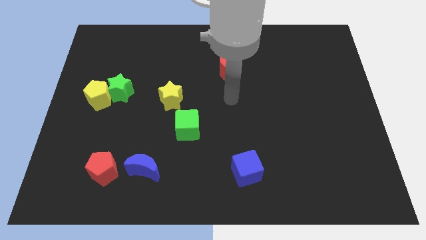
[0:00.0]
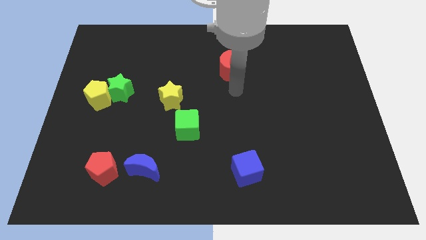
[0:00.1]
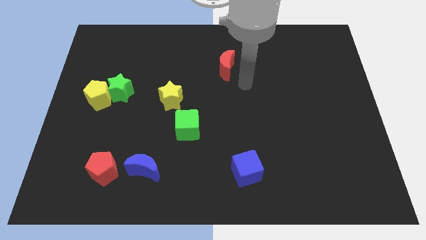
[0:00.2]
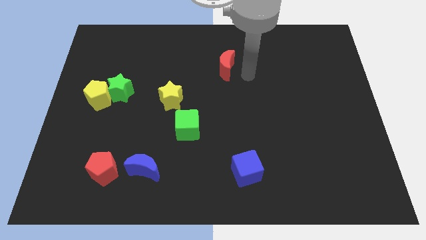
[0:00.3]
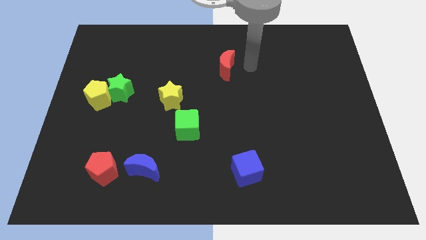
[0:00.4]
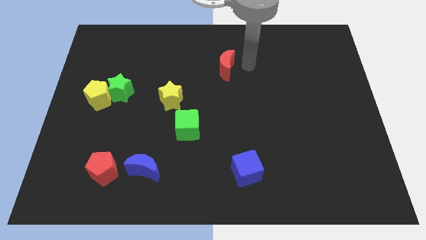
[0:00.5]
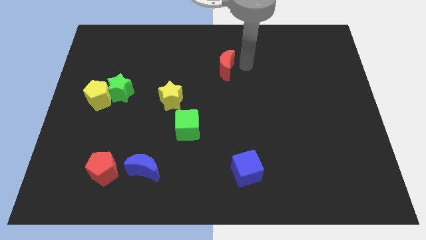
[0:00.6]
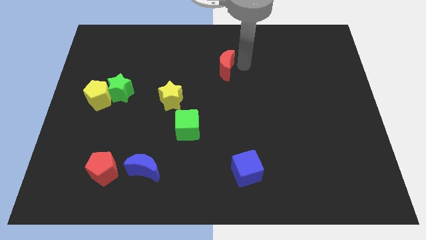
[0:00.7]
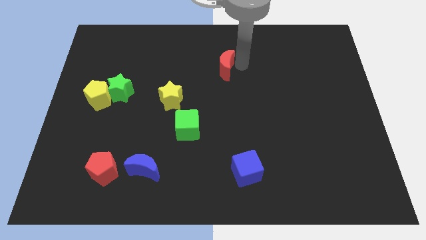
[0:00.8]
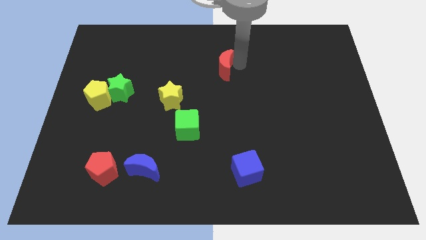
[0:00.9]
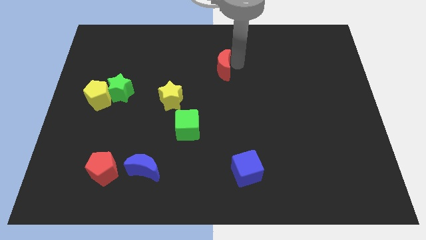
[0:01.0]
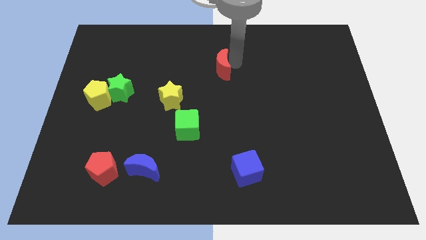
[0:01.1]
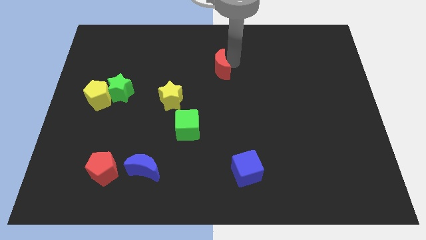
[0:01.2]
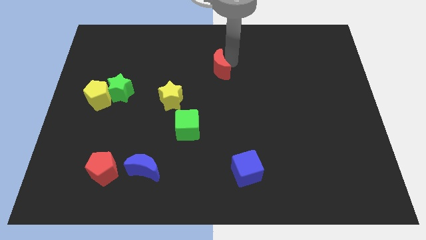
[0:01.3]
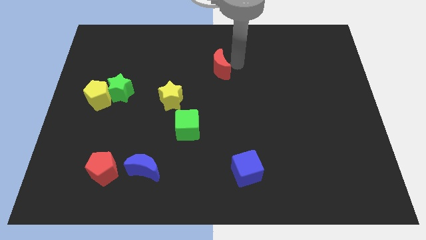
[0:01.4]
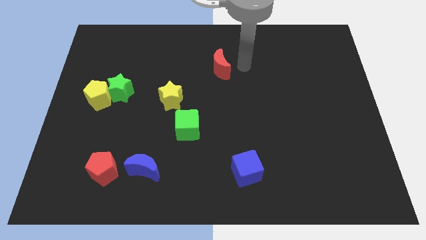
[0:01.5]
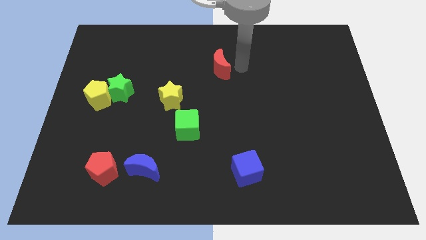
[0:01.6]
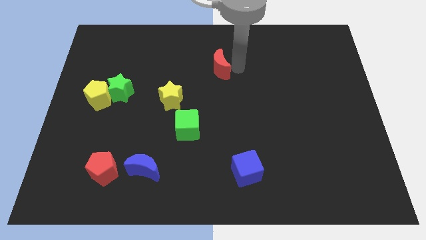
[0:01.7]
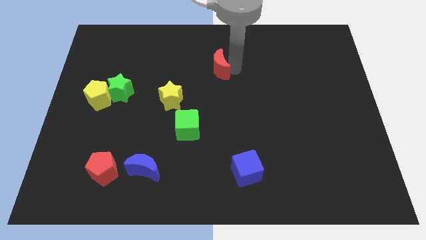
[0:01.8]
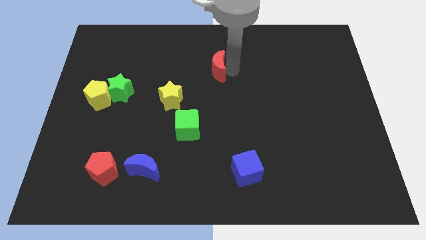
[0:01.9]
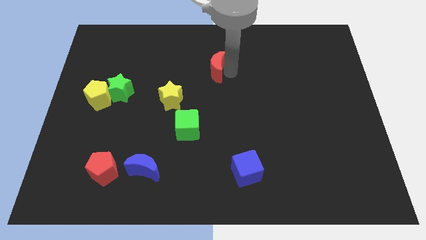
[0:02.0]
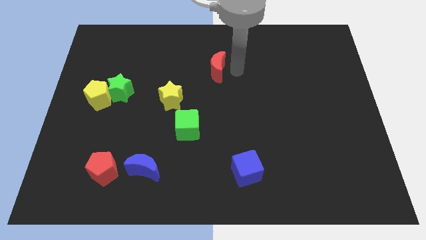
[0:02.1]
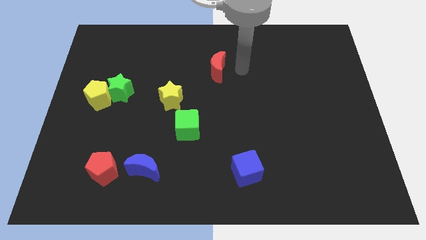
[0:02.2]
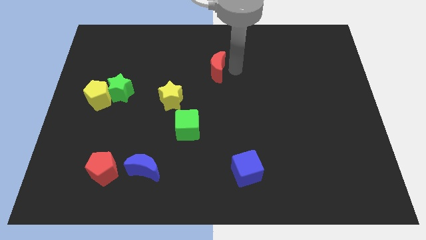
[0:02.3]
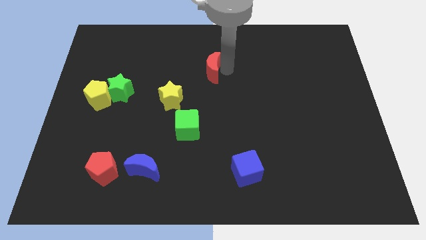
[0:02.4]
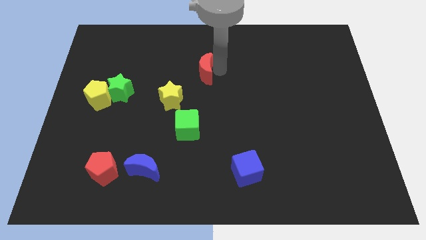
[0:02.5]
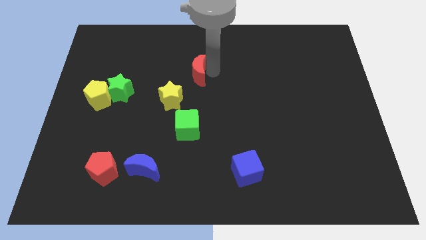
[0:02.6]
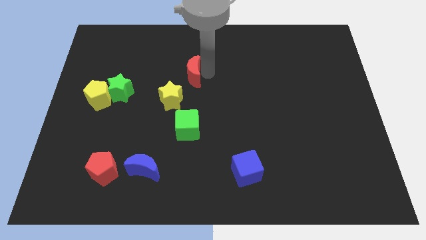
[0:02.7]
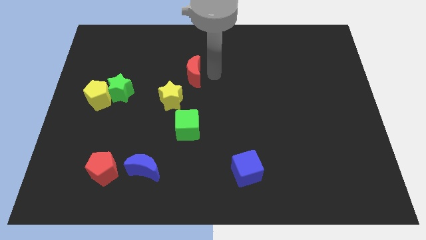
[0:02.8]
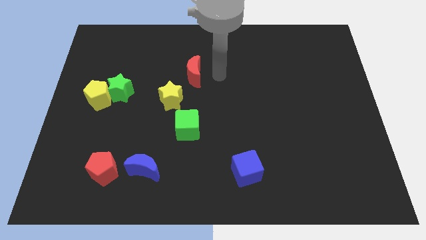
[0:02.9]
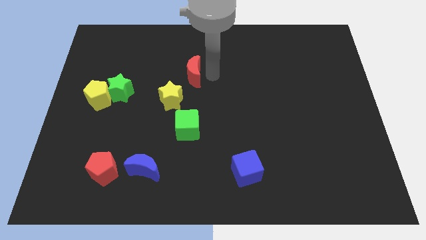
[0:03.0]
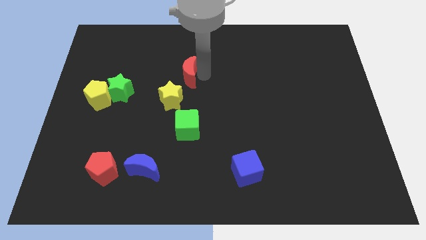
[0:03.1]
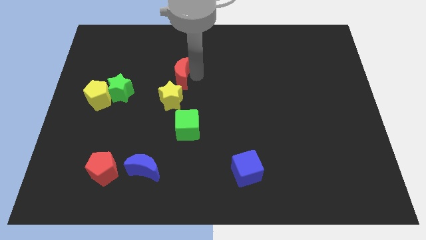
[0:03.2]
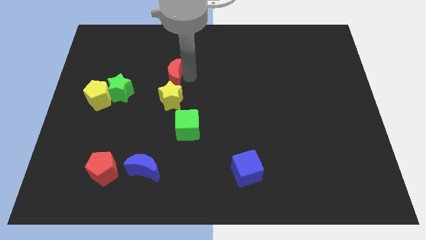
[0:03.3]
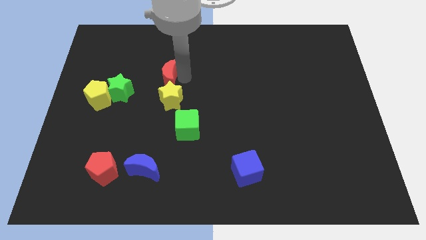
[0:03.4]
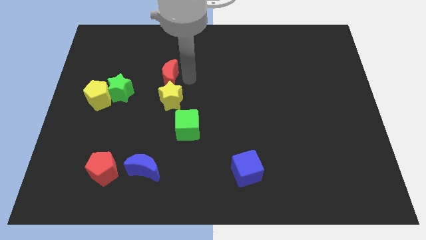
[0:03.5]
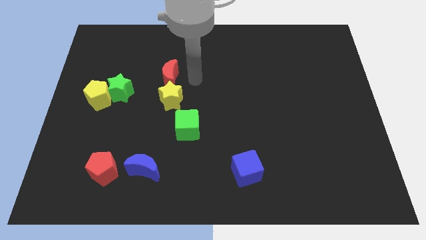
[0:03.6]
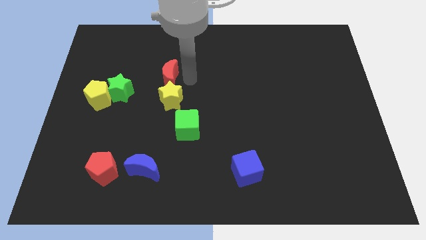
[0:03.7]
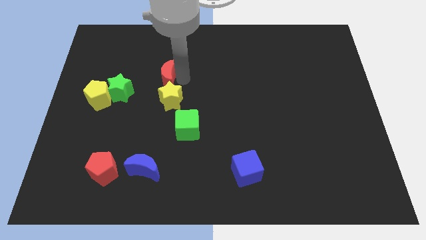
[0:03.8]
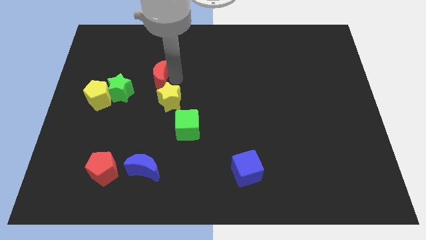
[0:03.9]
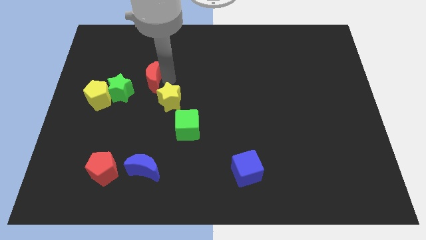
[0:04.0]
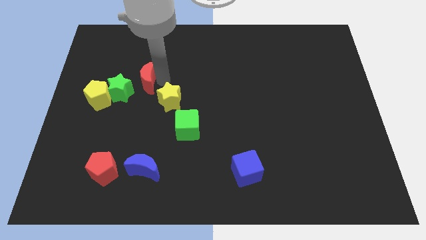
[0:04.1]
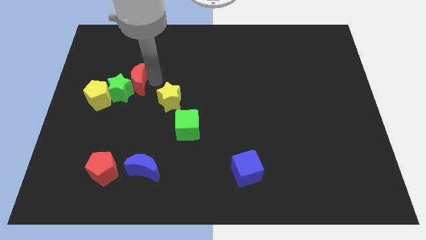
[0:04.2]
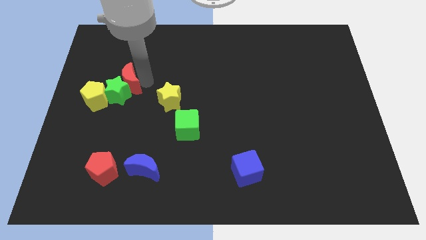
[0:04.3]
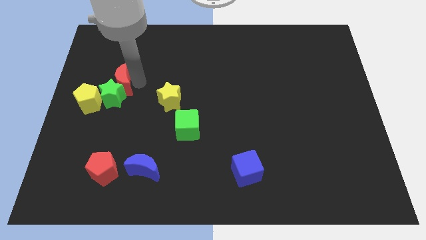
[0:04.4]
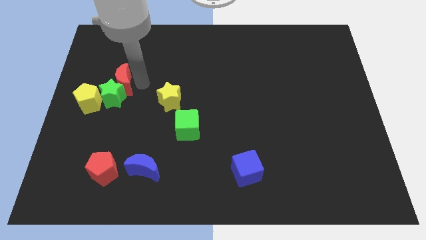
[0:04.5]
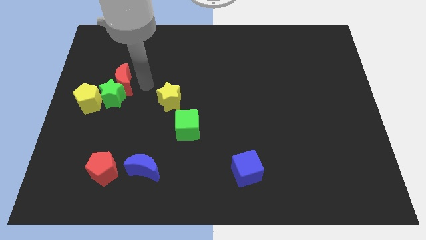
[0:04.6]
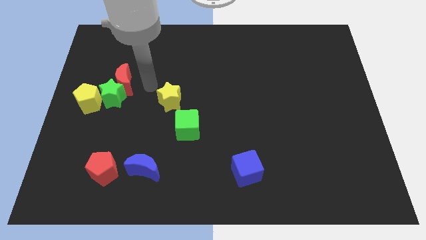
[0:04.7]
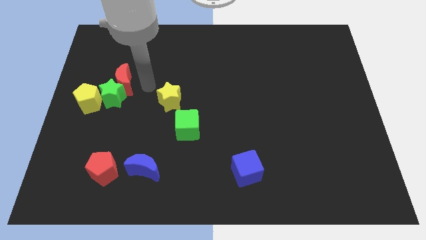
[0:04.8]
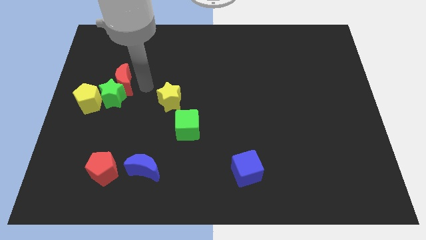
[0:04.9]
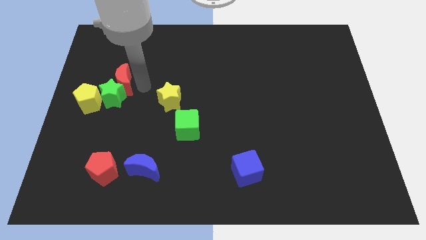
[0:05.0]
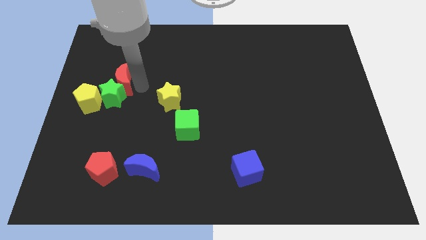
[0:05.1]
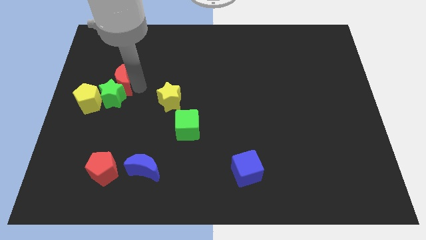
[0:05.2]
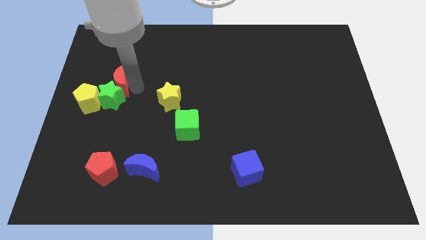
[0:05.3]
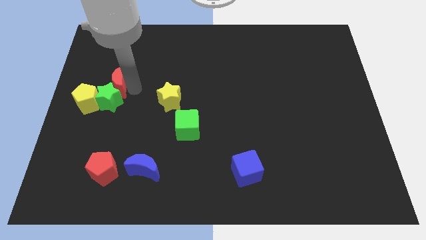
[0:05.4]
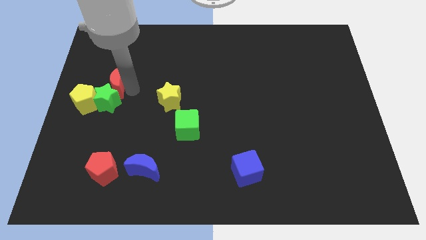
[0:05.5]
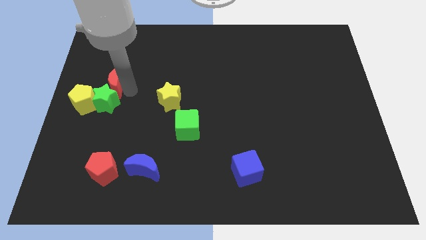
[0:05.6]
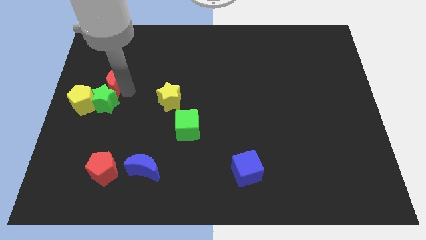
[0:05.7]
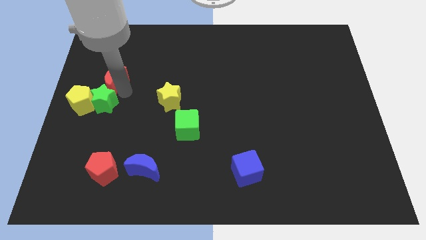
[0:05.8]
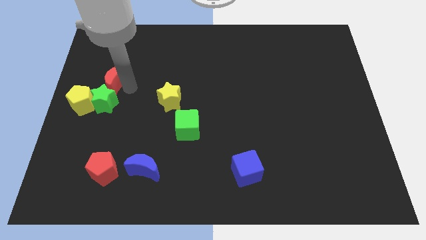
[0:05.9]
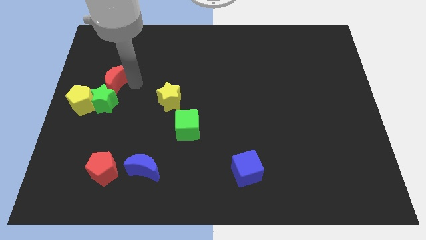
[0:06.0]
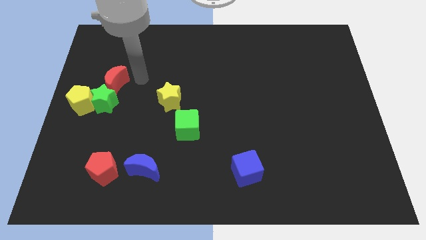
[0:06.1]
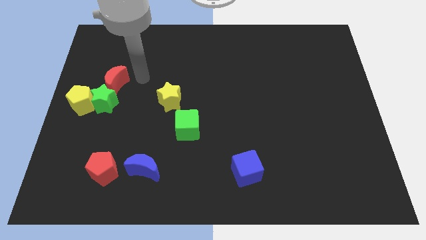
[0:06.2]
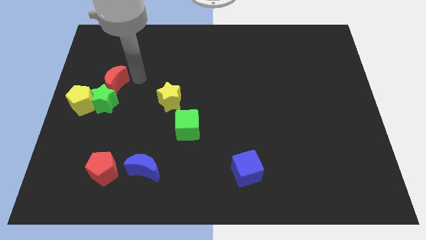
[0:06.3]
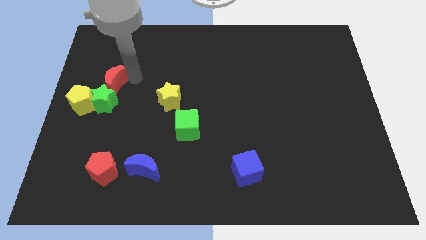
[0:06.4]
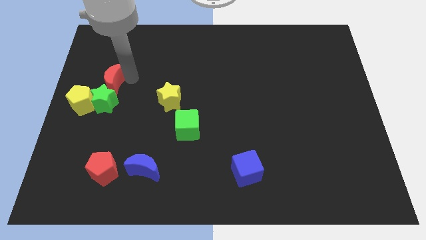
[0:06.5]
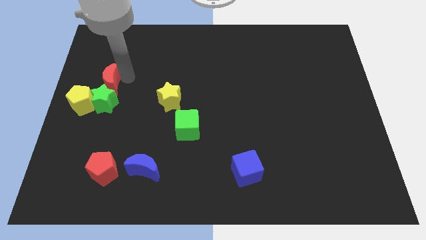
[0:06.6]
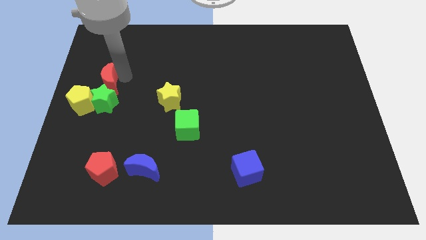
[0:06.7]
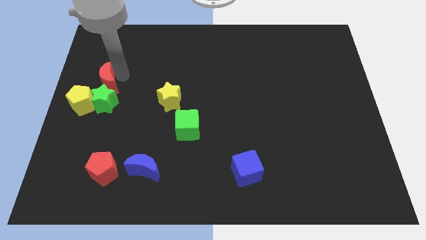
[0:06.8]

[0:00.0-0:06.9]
put the red moon to the left side
